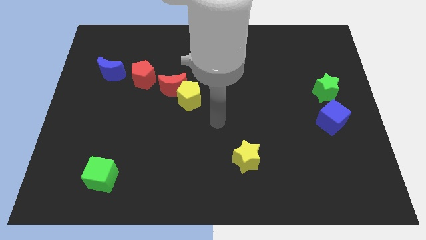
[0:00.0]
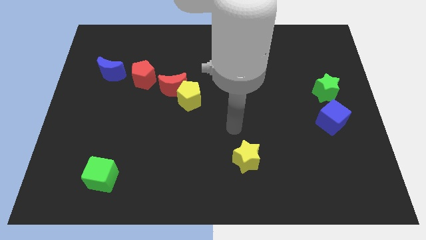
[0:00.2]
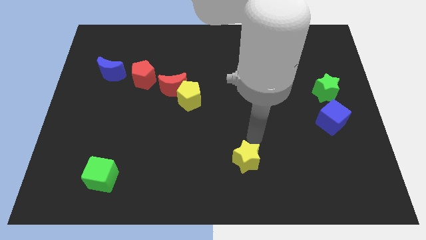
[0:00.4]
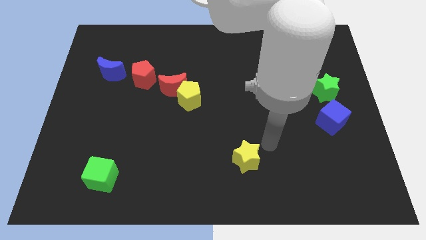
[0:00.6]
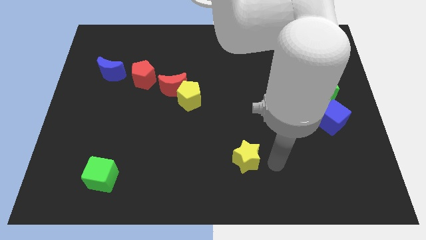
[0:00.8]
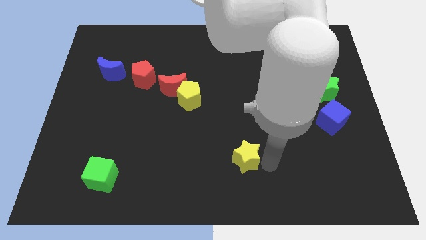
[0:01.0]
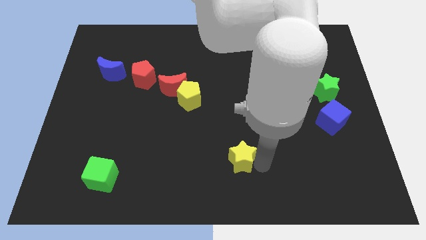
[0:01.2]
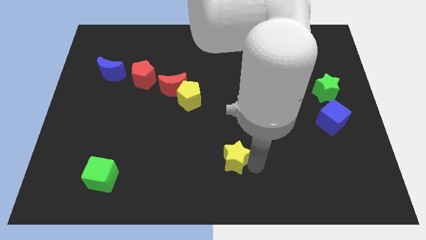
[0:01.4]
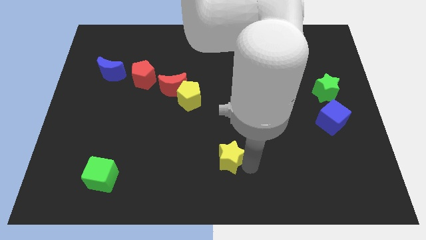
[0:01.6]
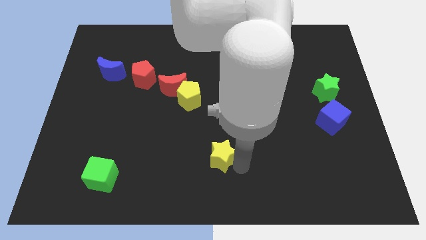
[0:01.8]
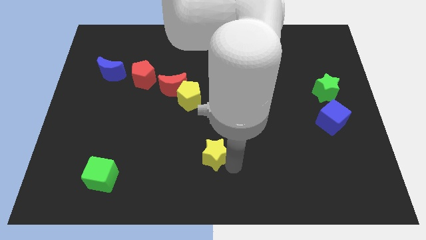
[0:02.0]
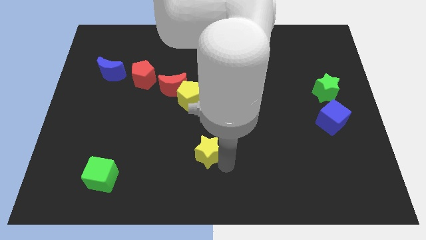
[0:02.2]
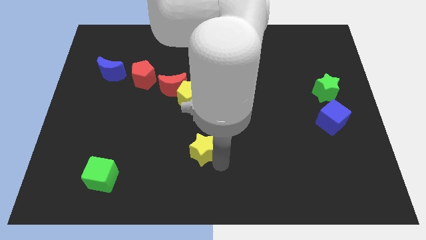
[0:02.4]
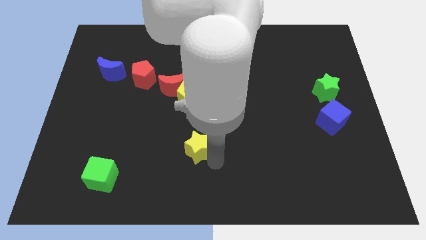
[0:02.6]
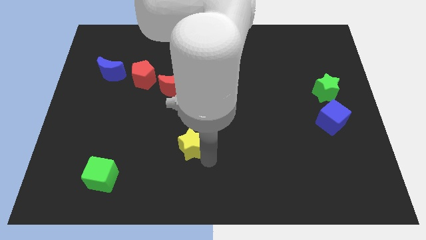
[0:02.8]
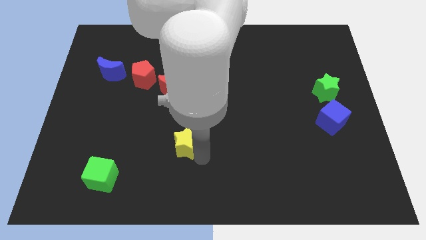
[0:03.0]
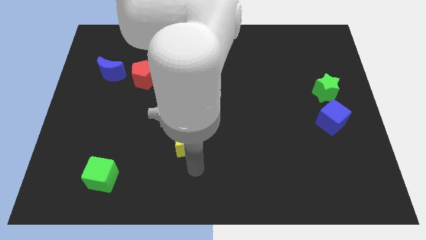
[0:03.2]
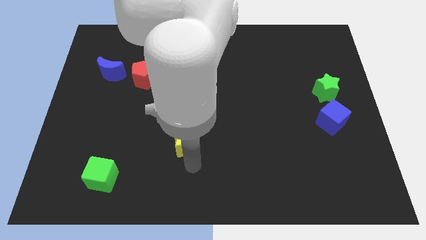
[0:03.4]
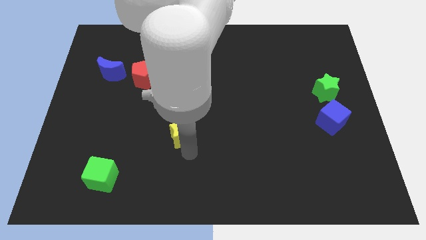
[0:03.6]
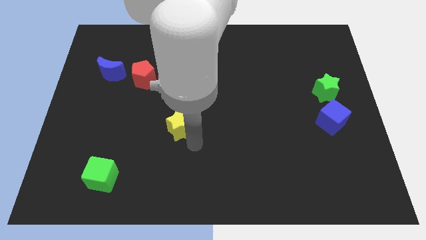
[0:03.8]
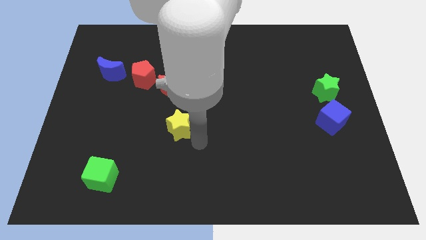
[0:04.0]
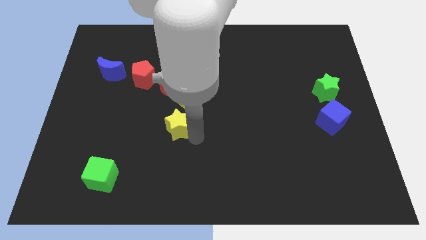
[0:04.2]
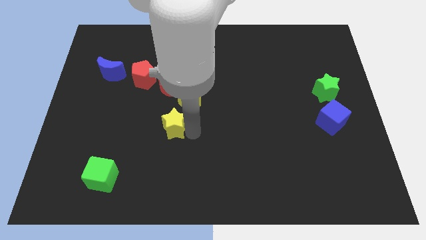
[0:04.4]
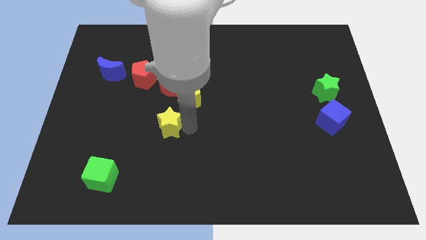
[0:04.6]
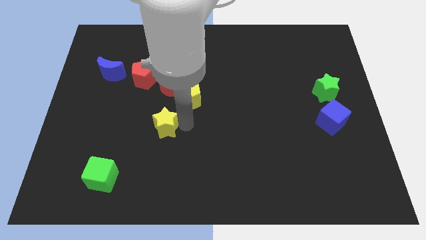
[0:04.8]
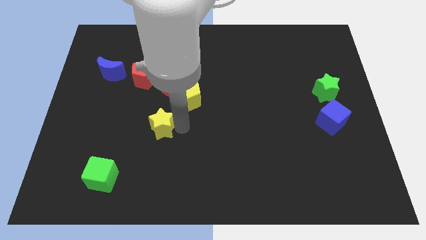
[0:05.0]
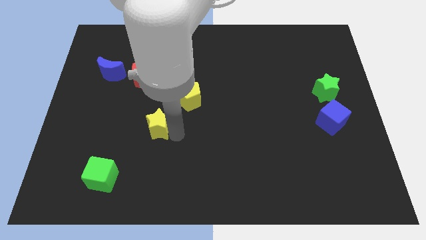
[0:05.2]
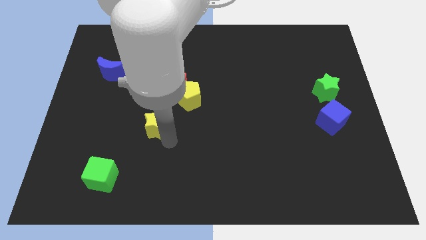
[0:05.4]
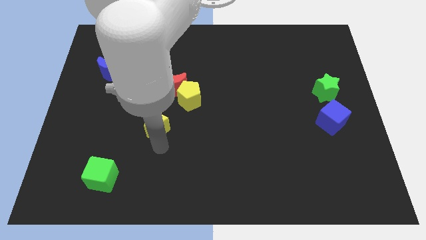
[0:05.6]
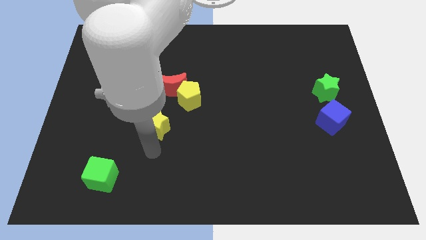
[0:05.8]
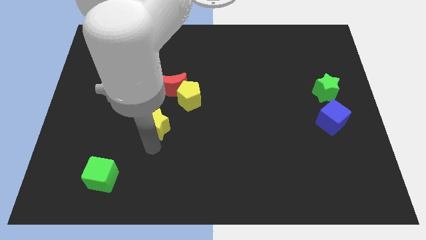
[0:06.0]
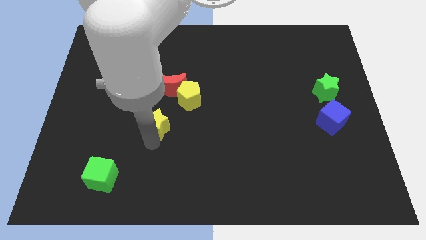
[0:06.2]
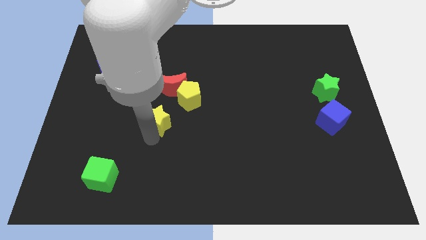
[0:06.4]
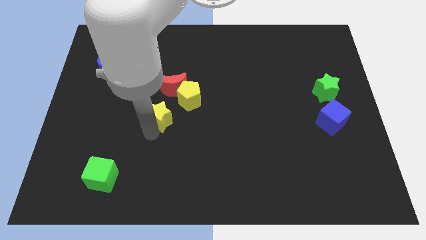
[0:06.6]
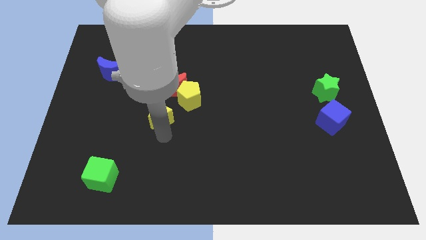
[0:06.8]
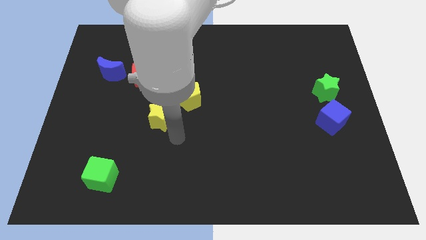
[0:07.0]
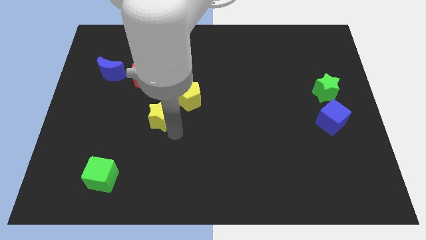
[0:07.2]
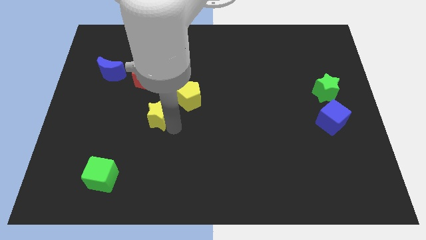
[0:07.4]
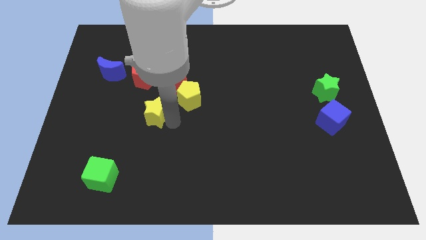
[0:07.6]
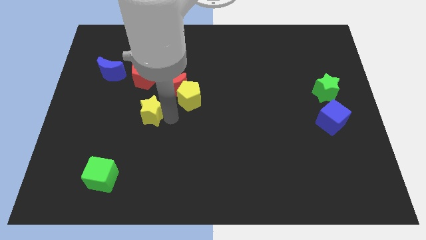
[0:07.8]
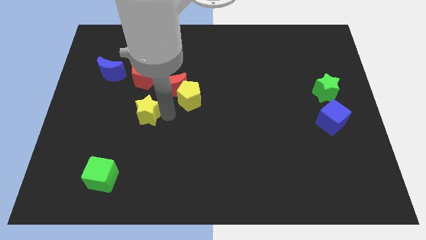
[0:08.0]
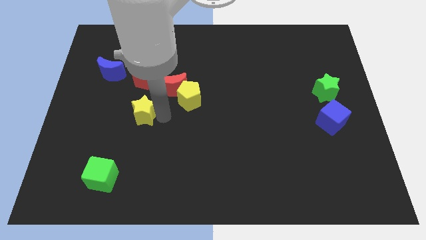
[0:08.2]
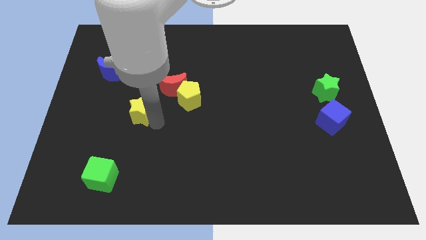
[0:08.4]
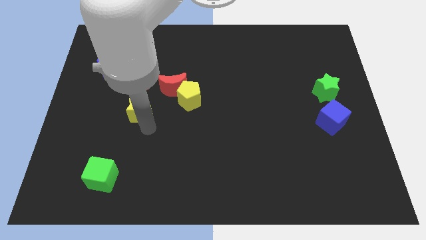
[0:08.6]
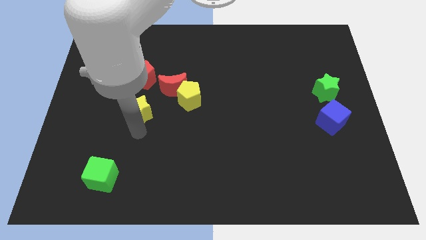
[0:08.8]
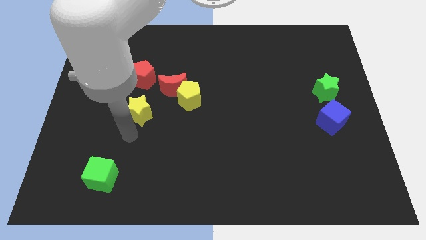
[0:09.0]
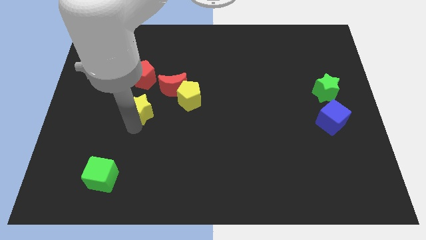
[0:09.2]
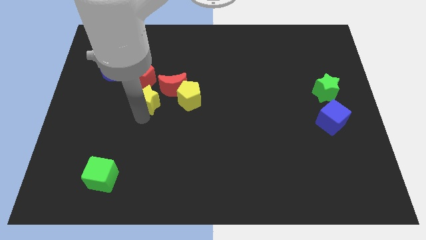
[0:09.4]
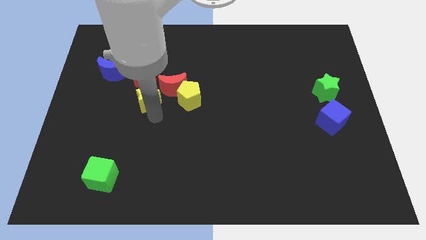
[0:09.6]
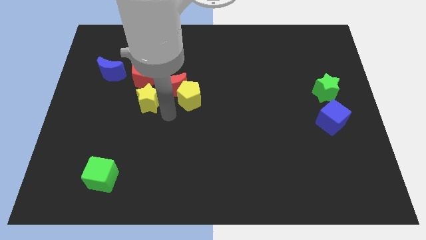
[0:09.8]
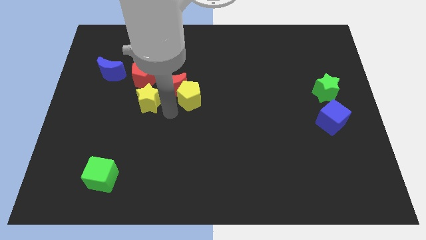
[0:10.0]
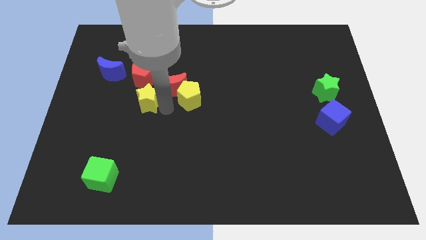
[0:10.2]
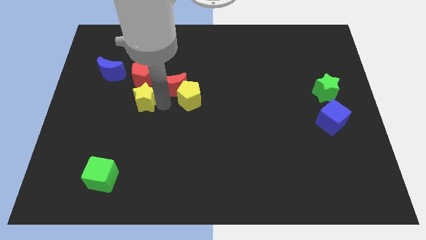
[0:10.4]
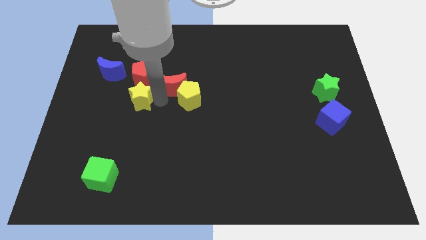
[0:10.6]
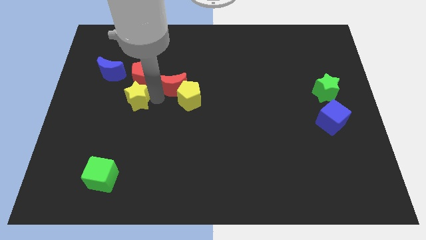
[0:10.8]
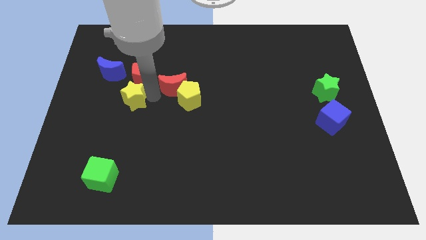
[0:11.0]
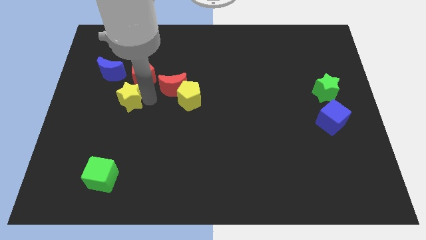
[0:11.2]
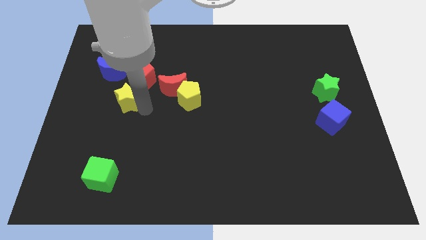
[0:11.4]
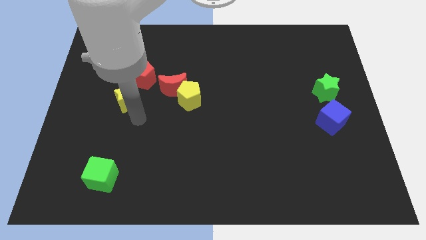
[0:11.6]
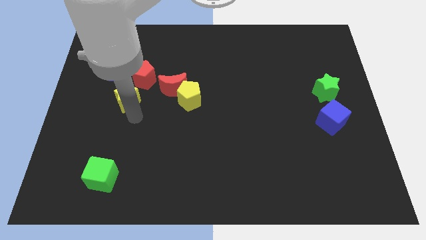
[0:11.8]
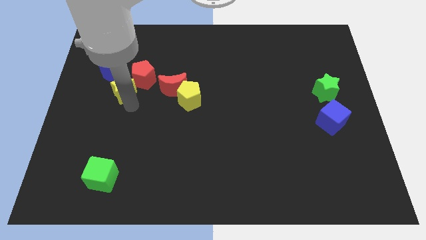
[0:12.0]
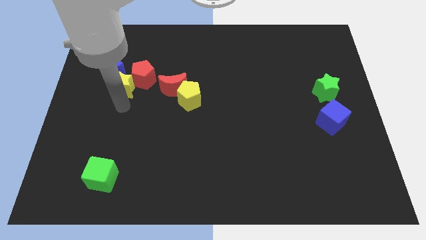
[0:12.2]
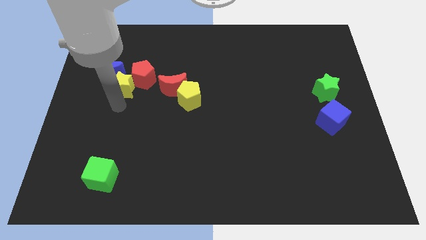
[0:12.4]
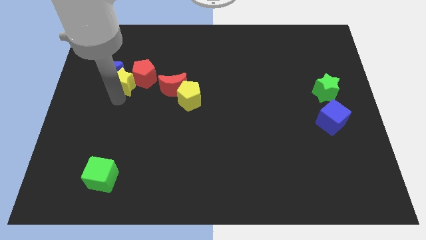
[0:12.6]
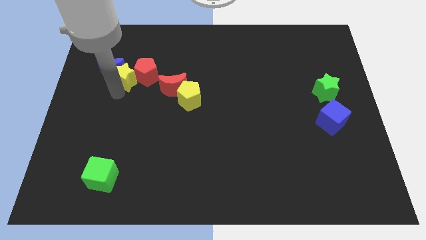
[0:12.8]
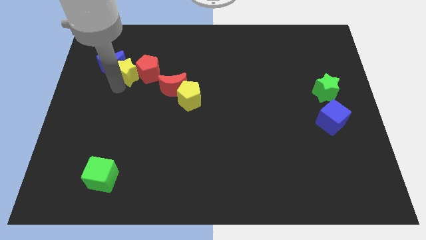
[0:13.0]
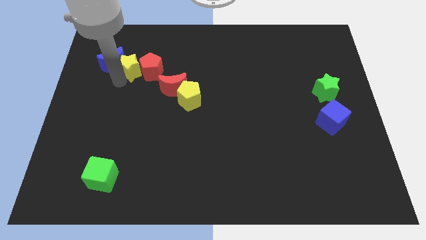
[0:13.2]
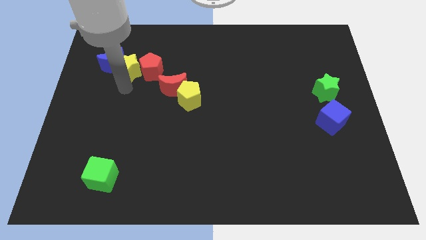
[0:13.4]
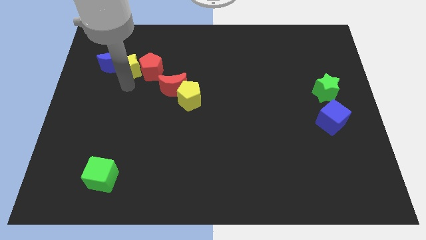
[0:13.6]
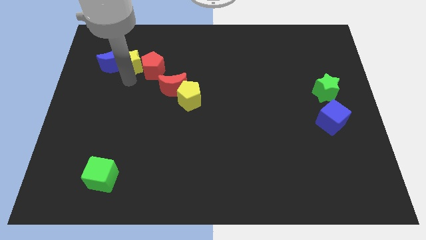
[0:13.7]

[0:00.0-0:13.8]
move the yellow star to the top right of the blue moon
